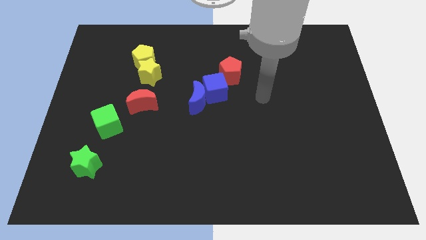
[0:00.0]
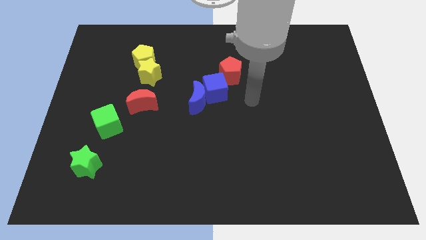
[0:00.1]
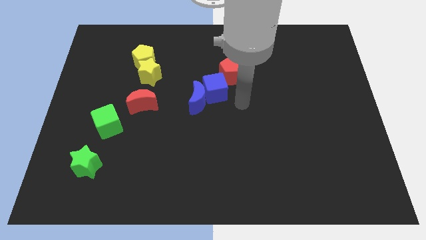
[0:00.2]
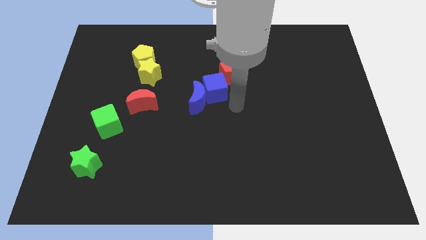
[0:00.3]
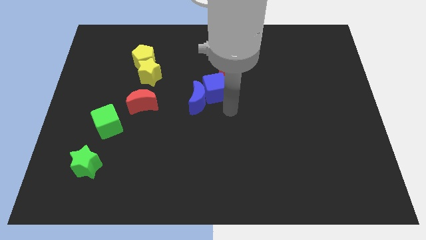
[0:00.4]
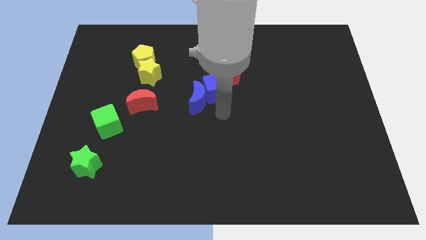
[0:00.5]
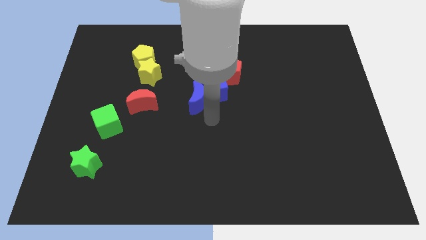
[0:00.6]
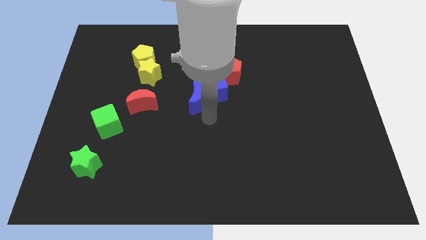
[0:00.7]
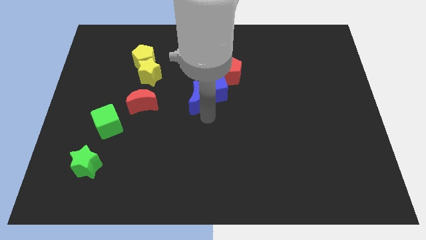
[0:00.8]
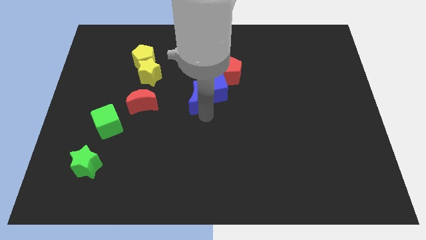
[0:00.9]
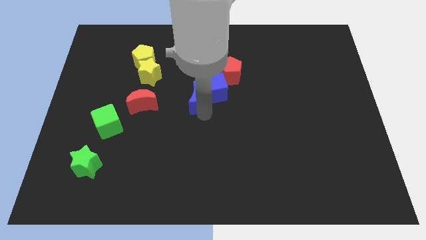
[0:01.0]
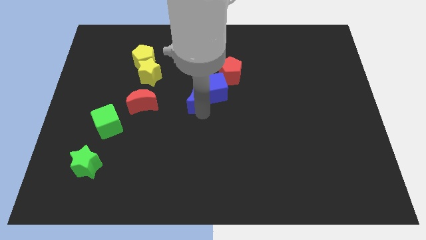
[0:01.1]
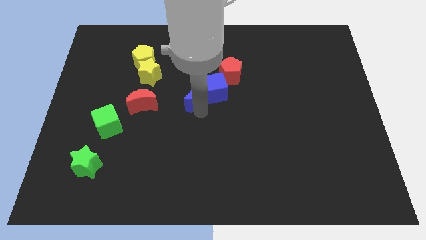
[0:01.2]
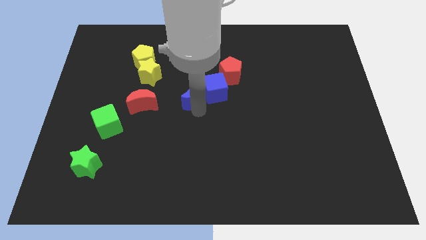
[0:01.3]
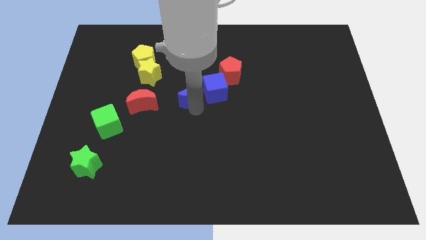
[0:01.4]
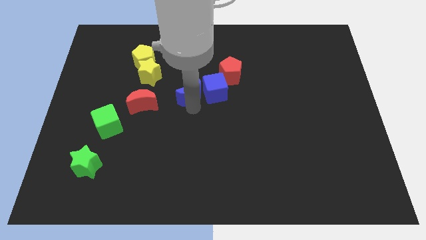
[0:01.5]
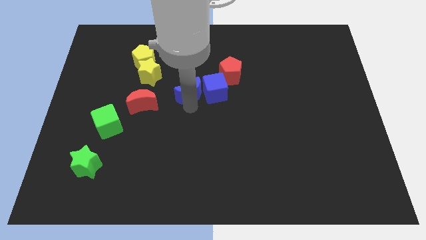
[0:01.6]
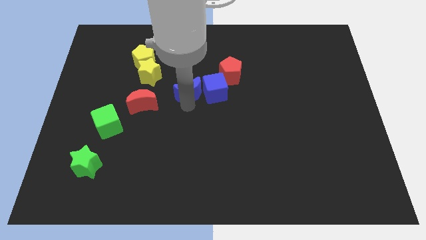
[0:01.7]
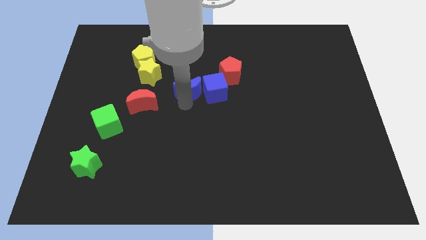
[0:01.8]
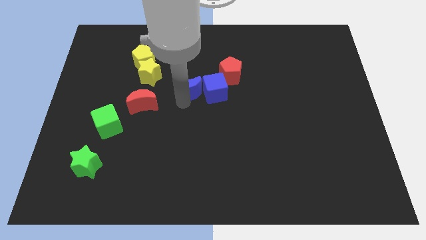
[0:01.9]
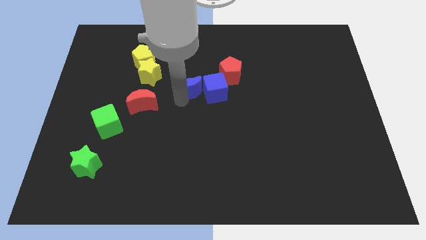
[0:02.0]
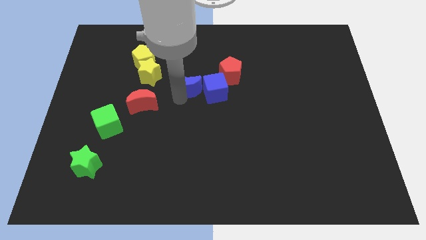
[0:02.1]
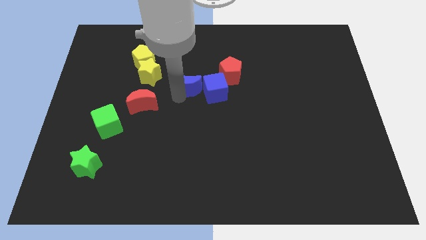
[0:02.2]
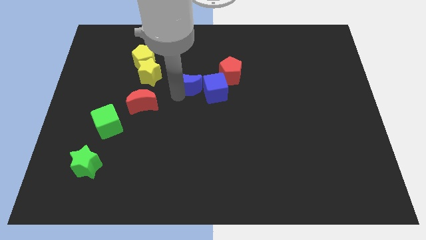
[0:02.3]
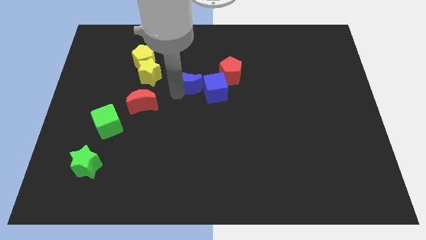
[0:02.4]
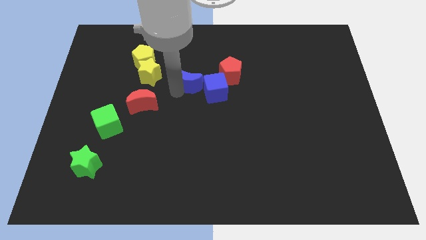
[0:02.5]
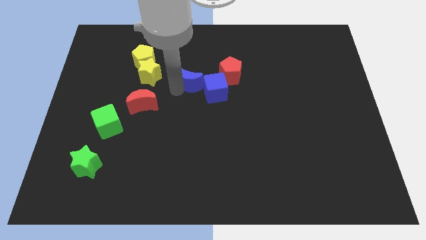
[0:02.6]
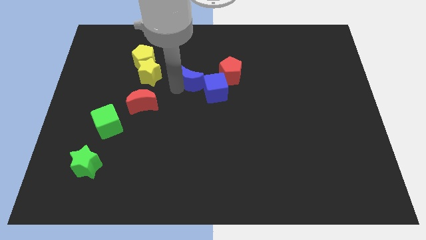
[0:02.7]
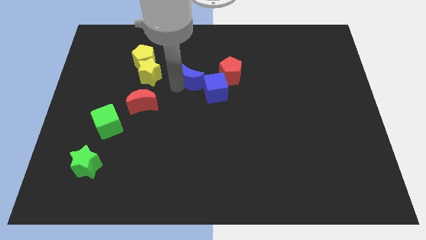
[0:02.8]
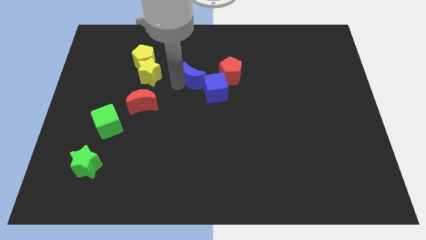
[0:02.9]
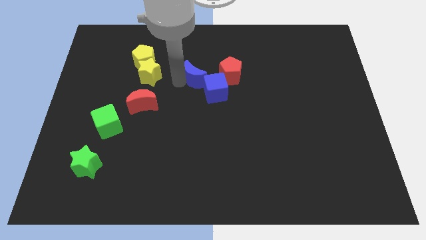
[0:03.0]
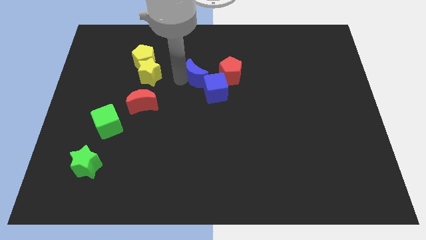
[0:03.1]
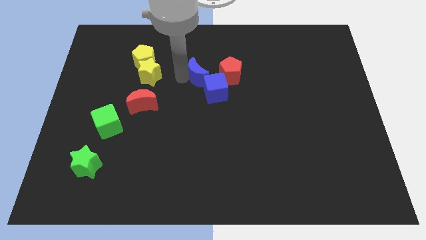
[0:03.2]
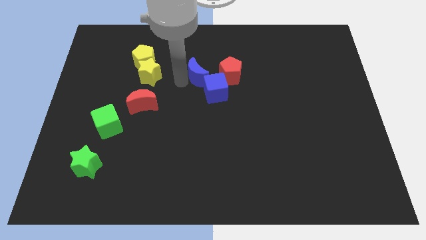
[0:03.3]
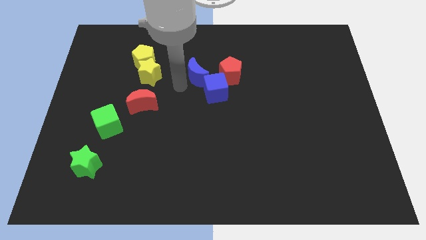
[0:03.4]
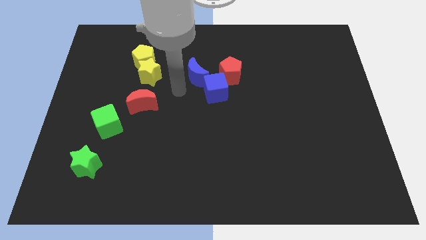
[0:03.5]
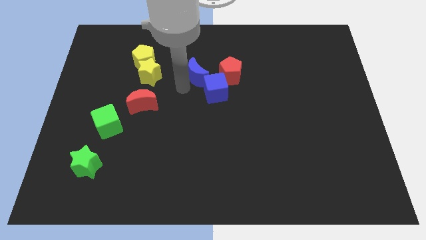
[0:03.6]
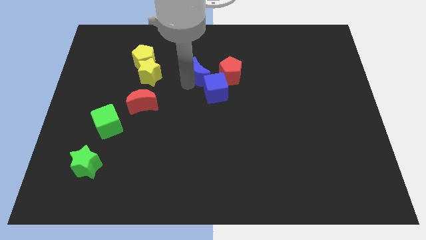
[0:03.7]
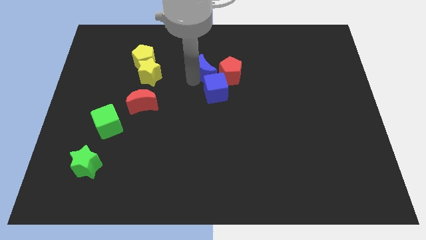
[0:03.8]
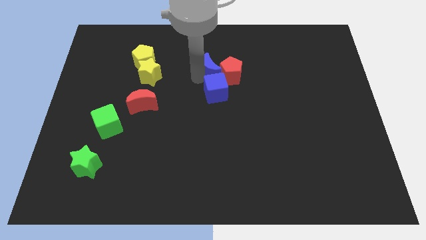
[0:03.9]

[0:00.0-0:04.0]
move the blue moon a bit up and to the right diagonally

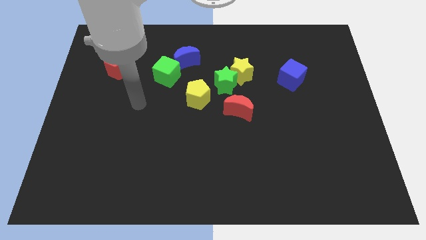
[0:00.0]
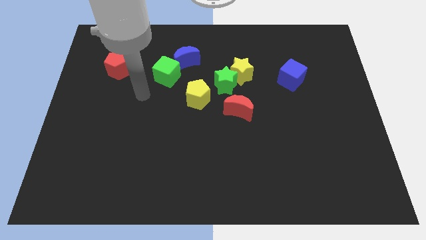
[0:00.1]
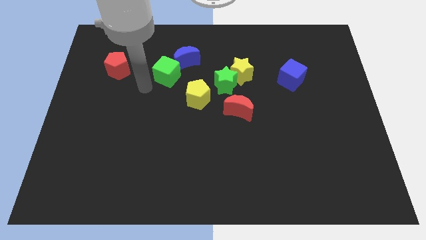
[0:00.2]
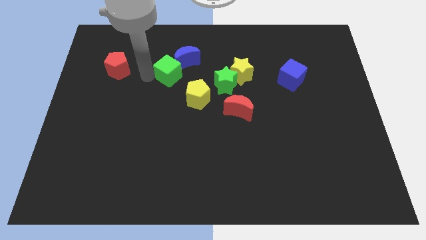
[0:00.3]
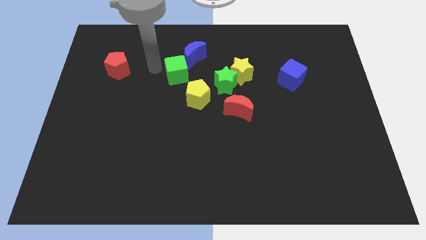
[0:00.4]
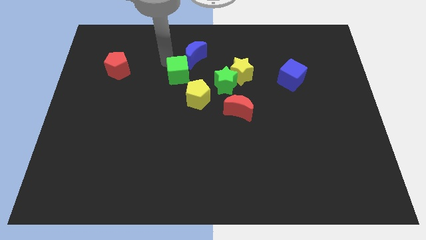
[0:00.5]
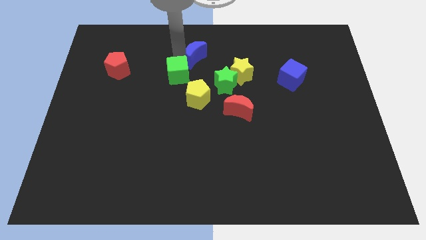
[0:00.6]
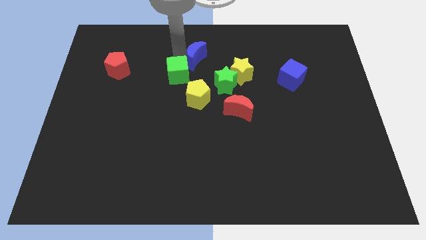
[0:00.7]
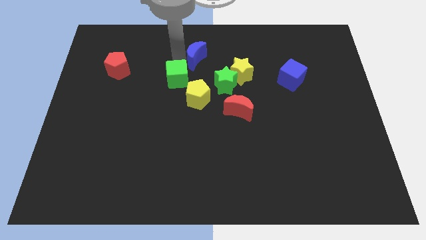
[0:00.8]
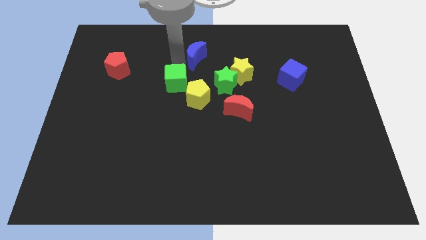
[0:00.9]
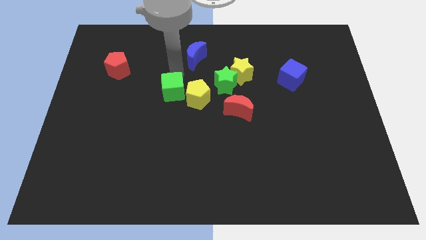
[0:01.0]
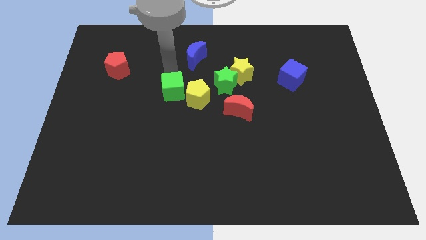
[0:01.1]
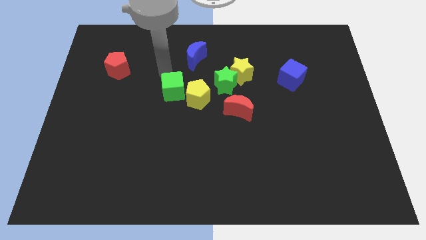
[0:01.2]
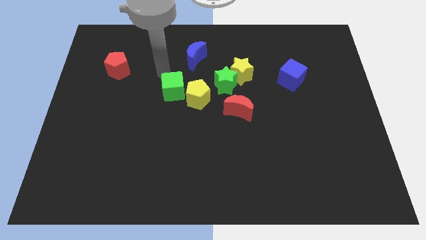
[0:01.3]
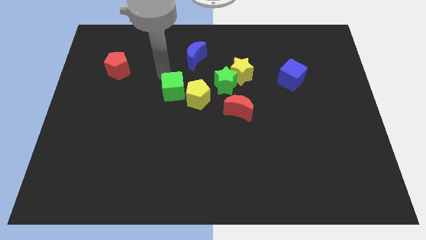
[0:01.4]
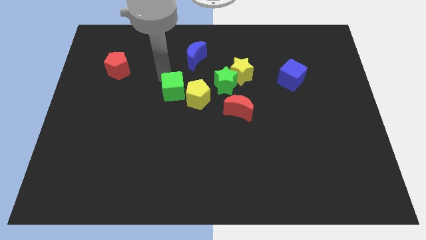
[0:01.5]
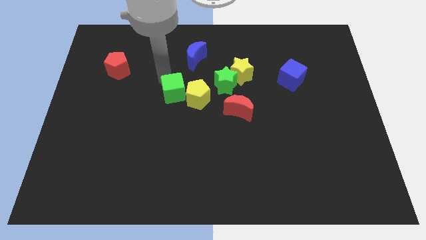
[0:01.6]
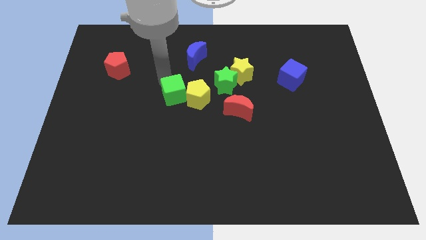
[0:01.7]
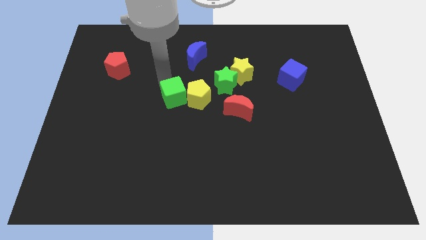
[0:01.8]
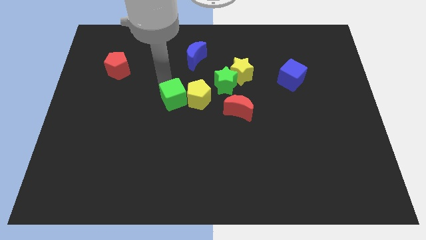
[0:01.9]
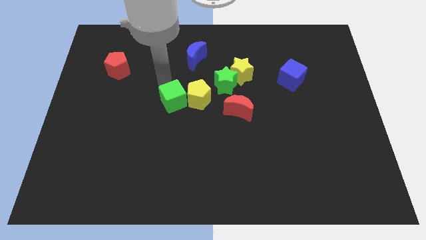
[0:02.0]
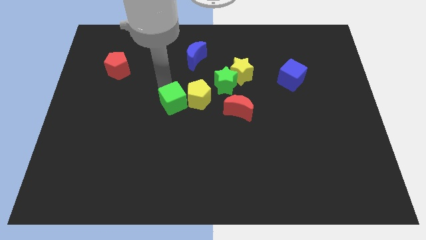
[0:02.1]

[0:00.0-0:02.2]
move the green cube downwards and right diagonally slightly

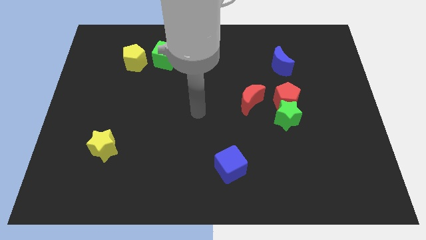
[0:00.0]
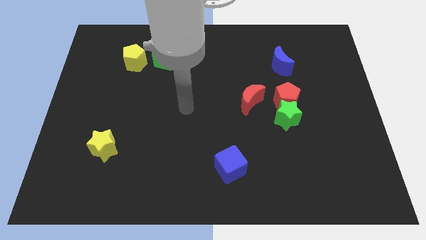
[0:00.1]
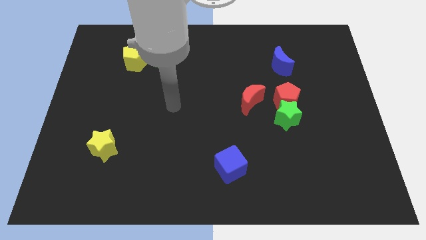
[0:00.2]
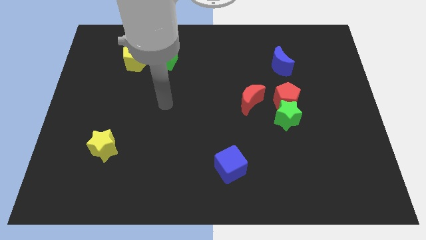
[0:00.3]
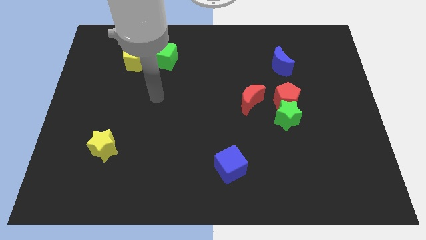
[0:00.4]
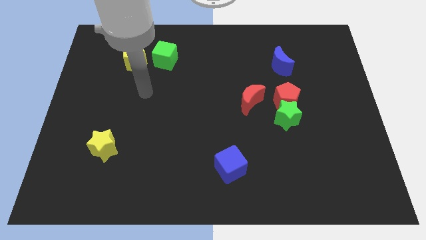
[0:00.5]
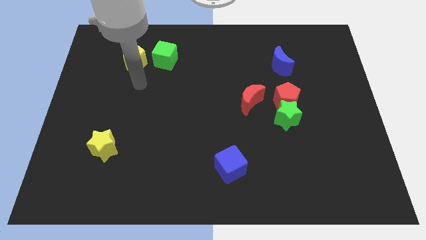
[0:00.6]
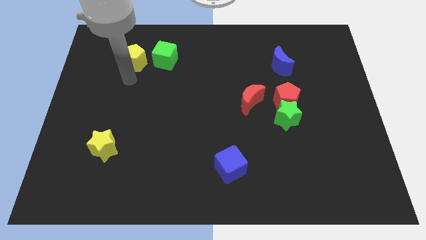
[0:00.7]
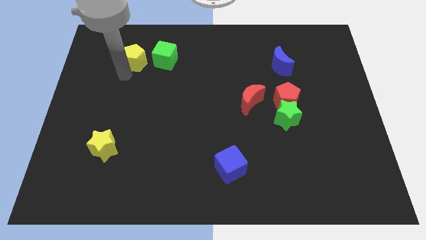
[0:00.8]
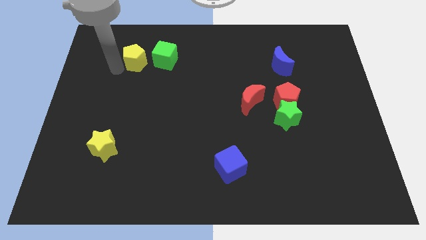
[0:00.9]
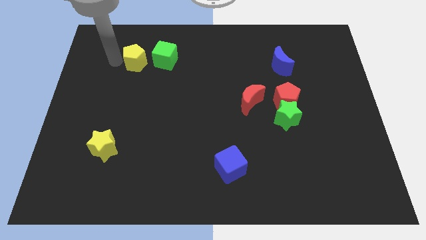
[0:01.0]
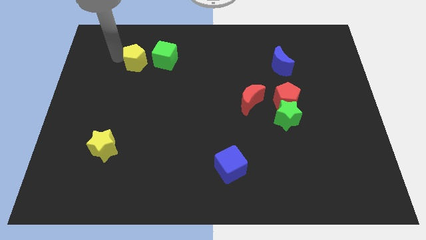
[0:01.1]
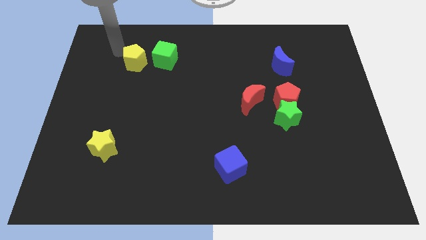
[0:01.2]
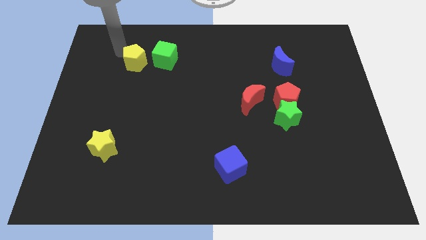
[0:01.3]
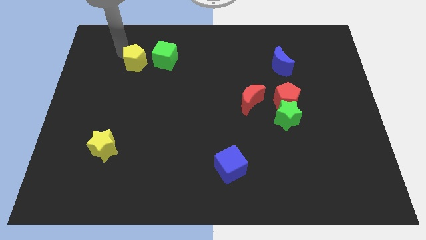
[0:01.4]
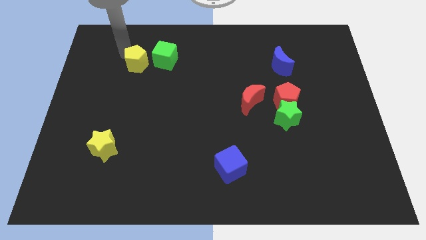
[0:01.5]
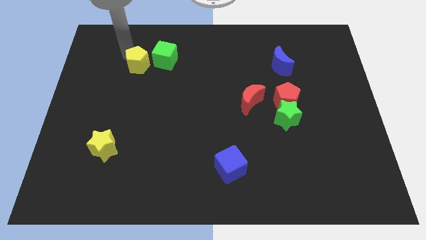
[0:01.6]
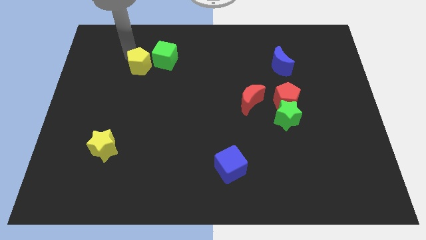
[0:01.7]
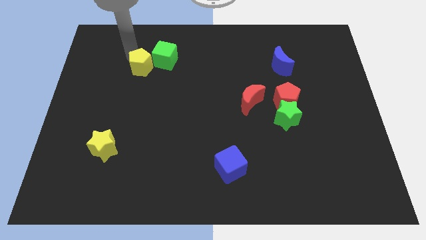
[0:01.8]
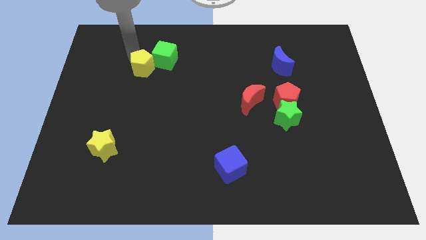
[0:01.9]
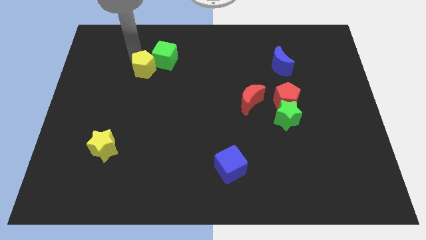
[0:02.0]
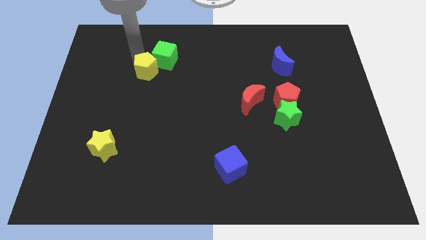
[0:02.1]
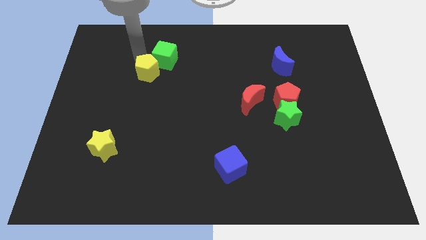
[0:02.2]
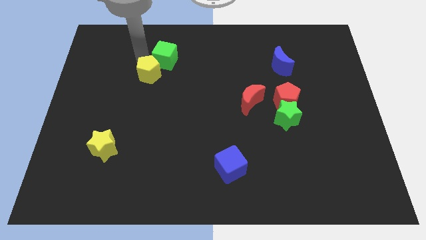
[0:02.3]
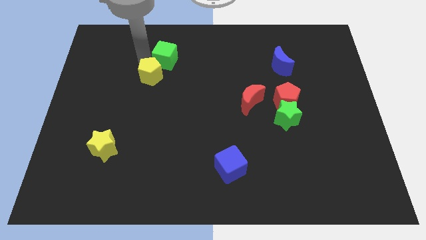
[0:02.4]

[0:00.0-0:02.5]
slightly push the yellow pentagon downwards and to the right
